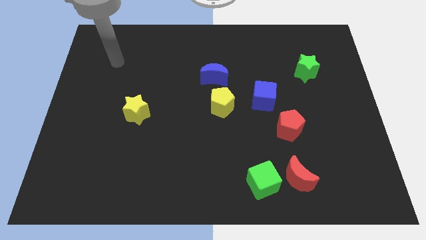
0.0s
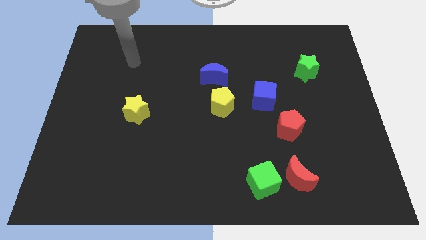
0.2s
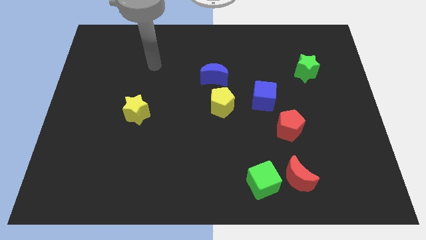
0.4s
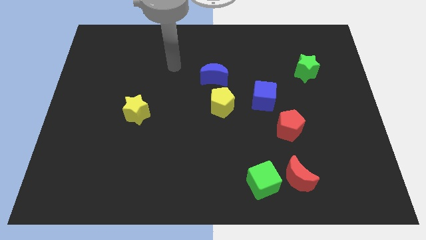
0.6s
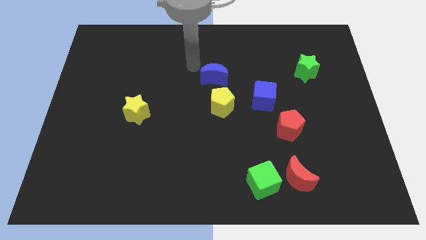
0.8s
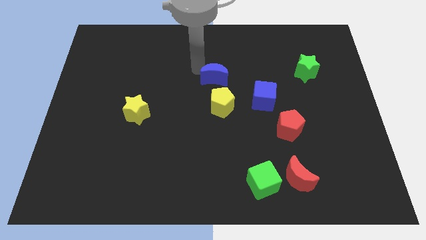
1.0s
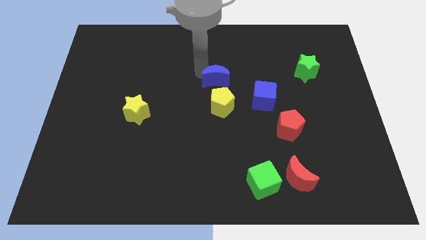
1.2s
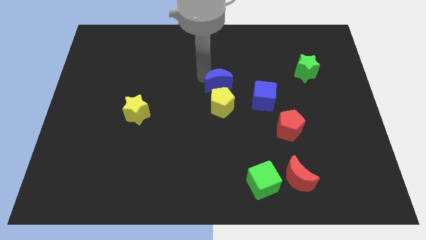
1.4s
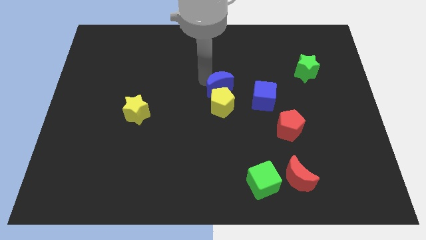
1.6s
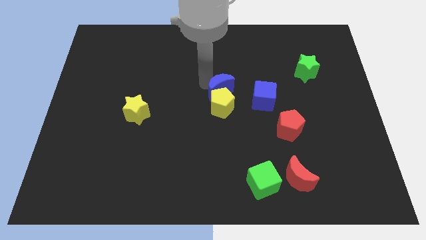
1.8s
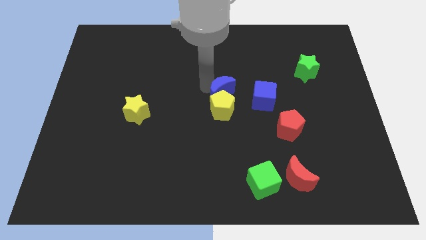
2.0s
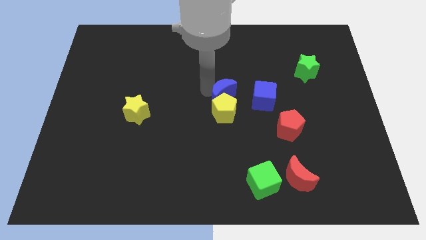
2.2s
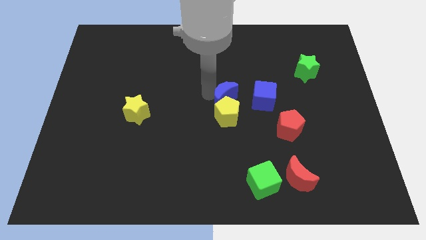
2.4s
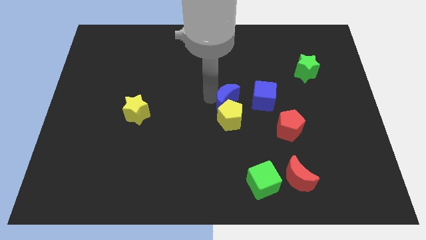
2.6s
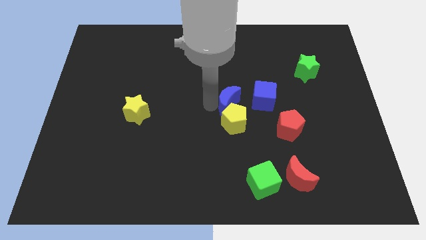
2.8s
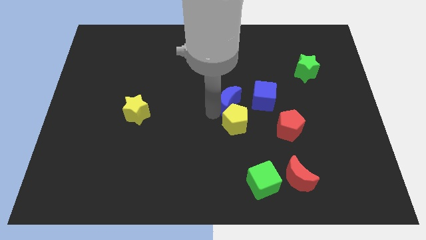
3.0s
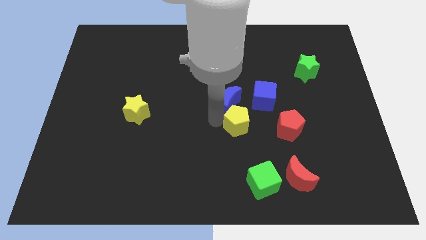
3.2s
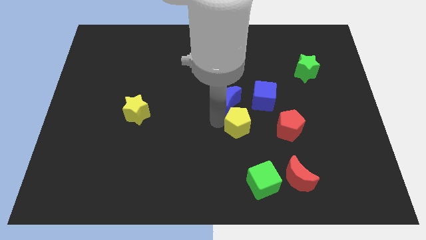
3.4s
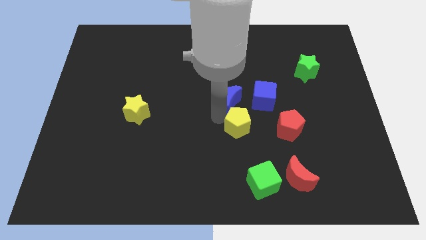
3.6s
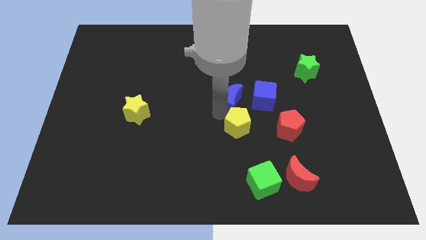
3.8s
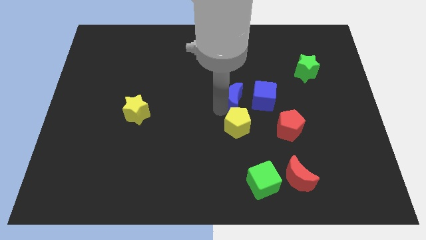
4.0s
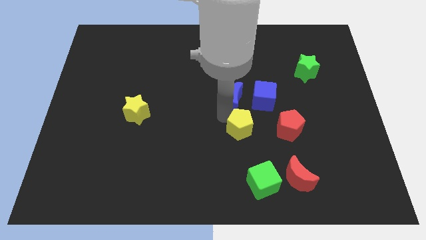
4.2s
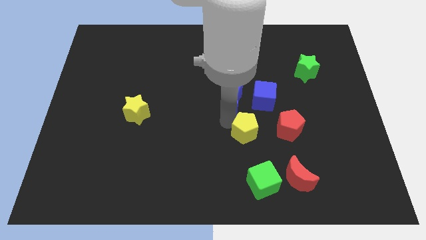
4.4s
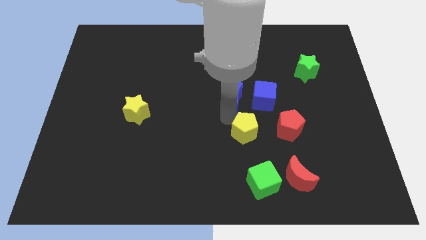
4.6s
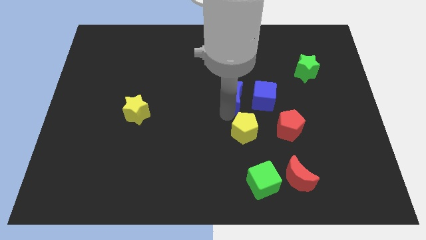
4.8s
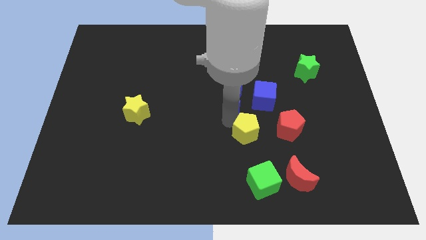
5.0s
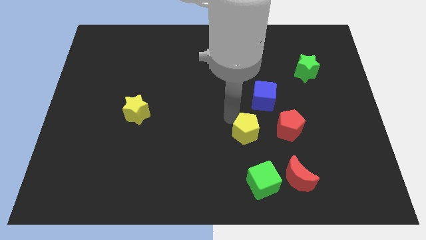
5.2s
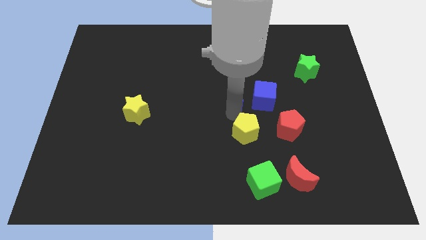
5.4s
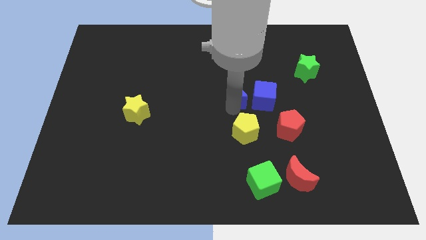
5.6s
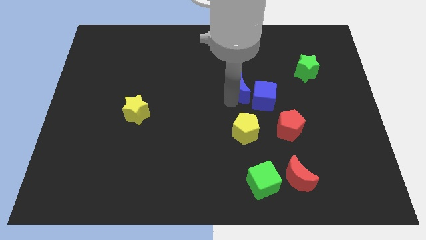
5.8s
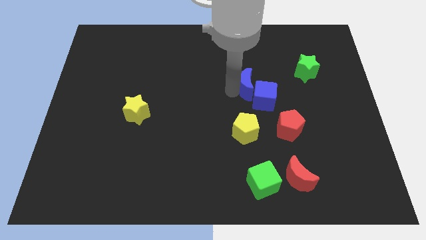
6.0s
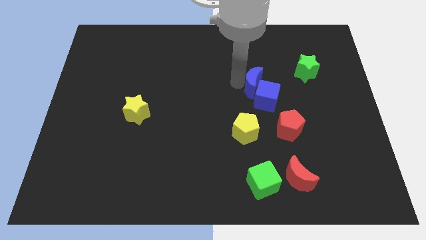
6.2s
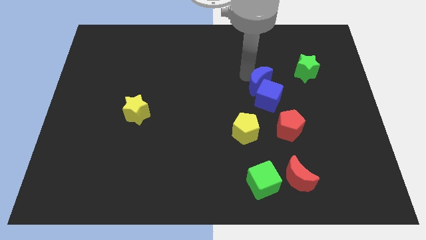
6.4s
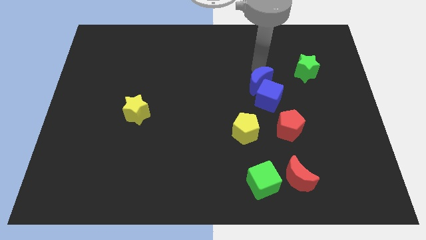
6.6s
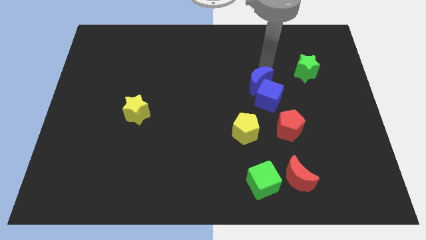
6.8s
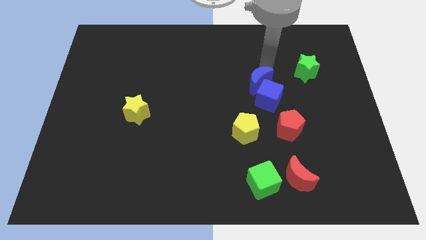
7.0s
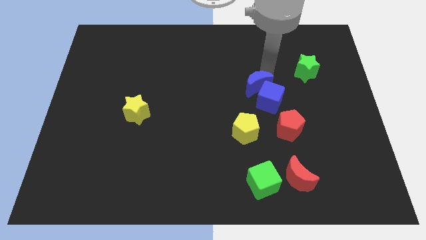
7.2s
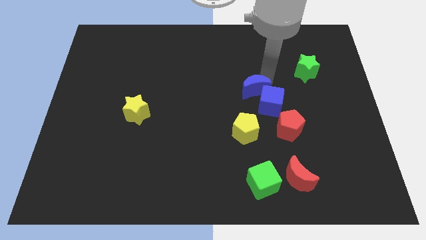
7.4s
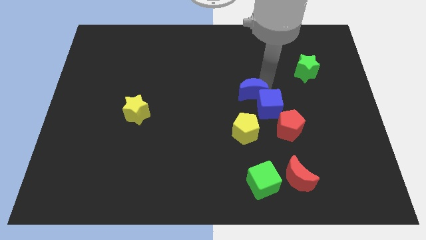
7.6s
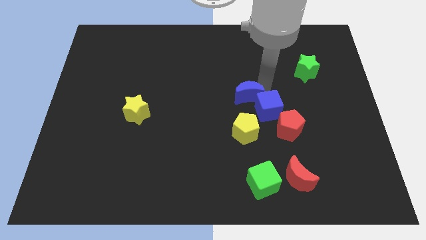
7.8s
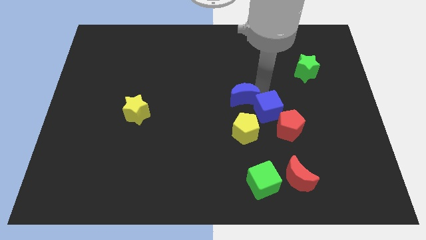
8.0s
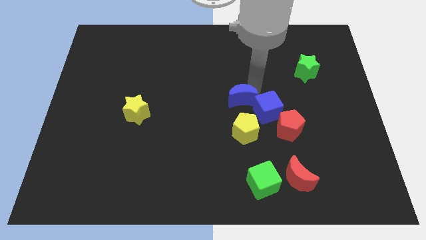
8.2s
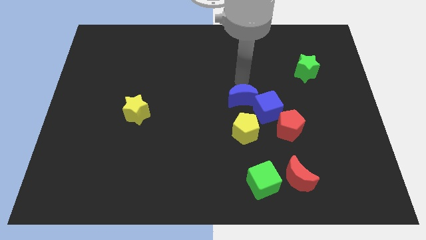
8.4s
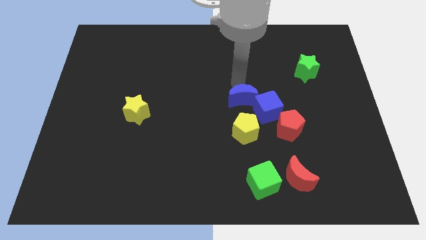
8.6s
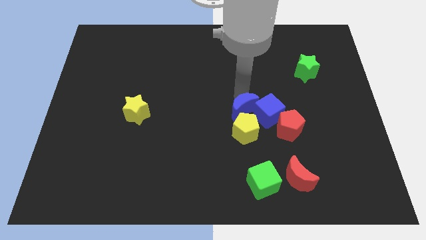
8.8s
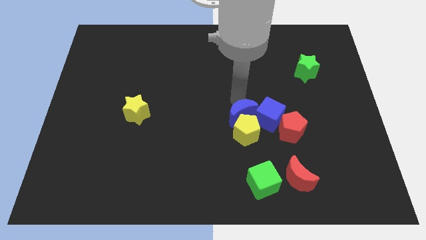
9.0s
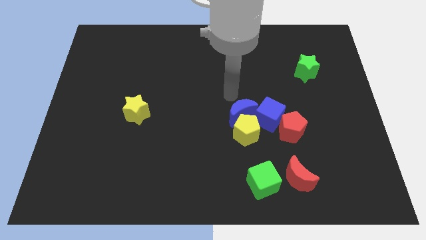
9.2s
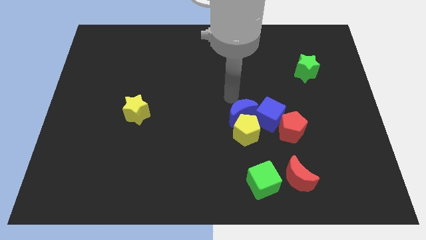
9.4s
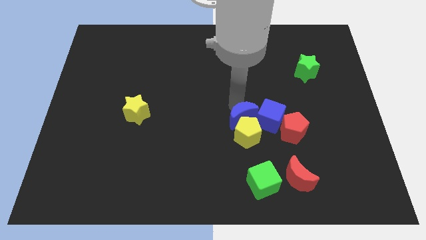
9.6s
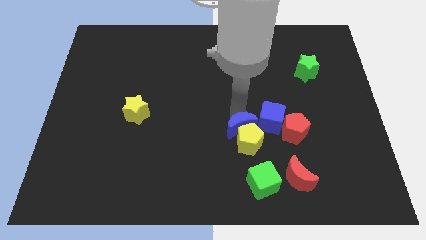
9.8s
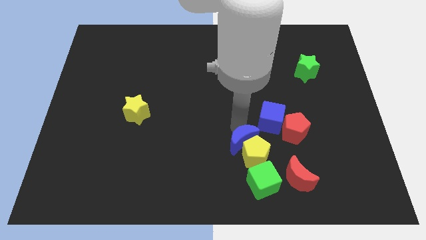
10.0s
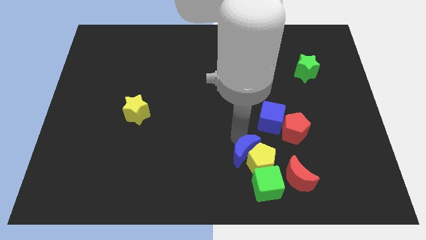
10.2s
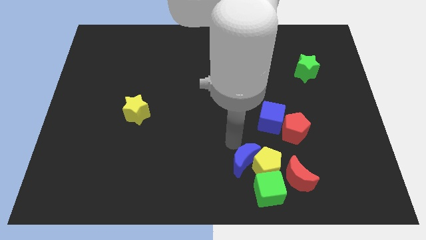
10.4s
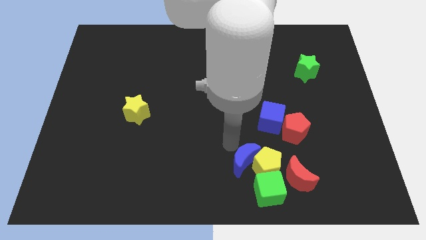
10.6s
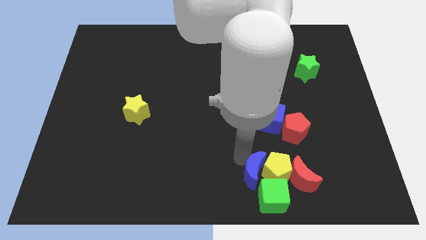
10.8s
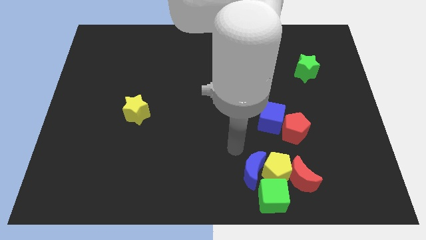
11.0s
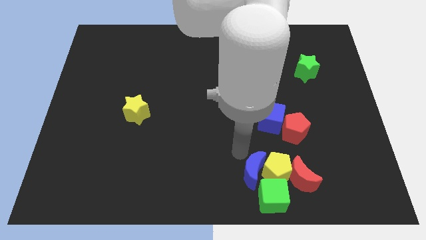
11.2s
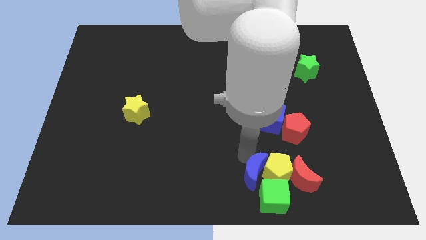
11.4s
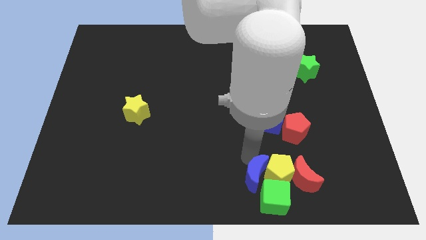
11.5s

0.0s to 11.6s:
push the blue moon towards the green cube

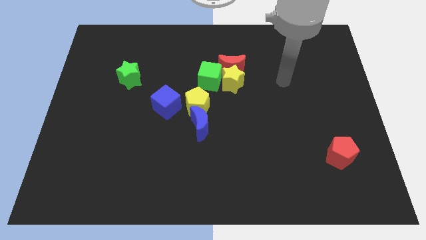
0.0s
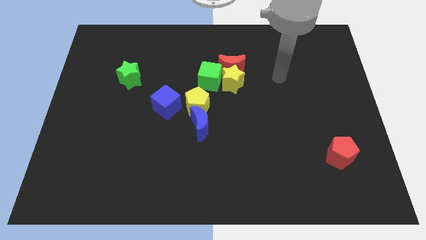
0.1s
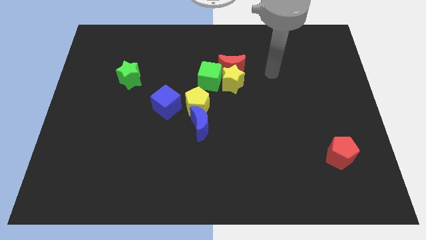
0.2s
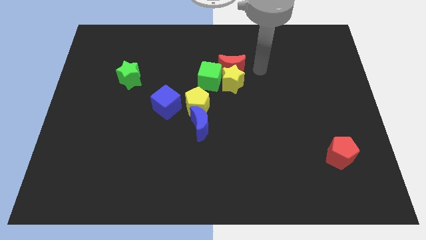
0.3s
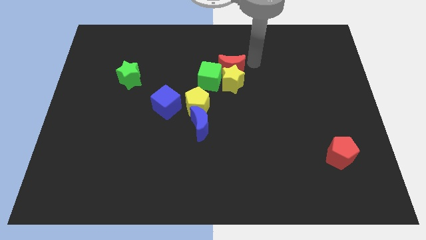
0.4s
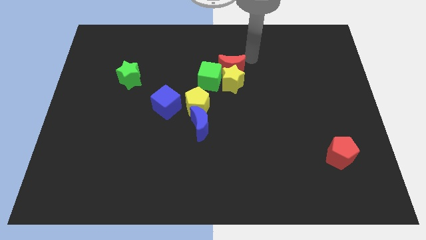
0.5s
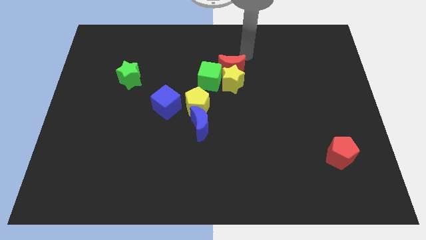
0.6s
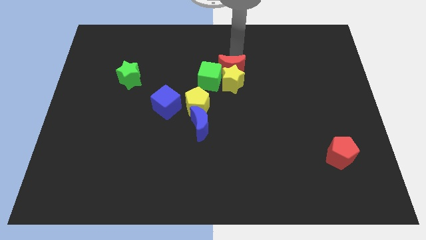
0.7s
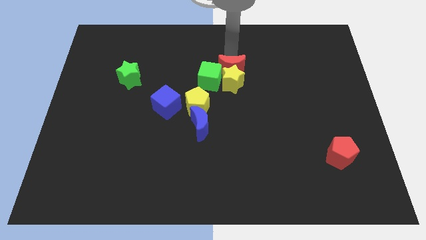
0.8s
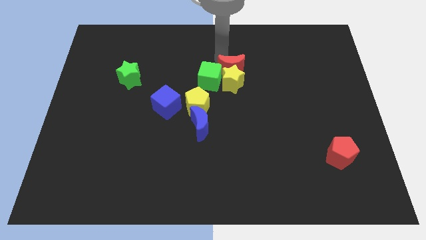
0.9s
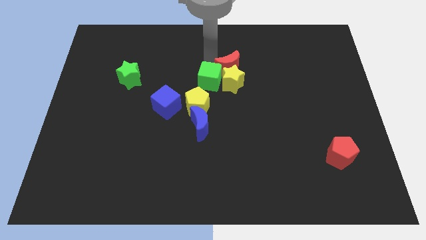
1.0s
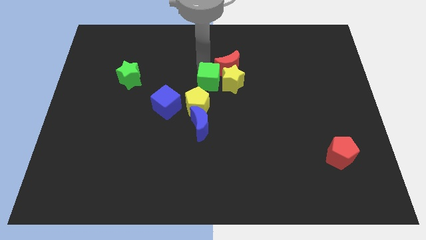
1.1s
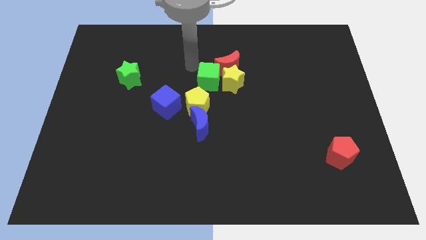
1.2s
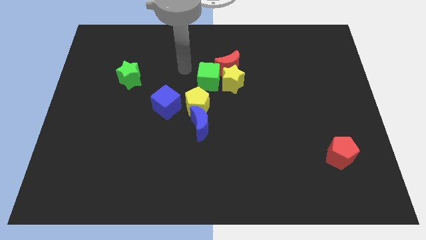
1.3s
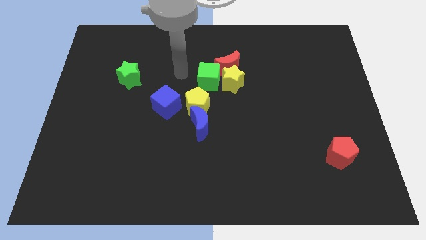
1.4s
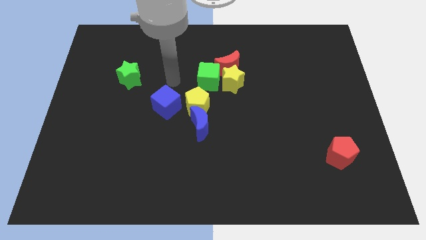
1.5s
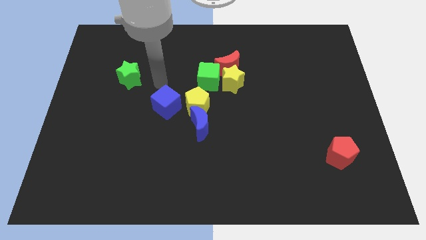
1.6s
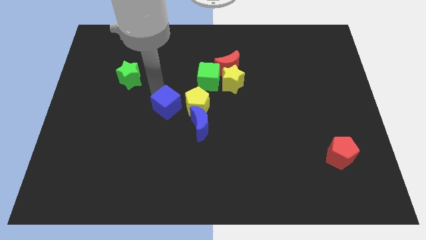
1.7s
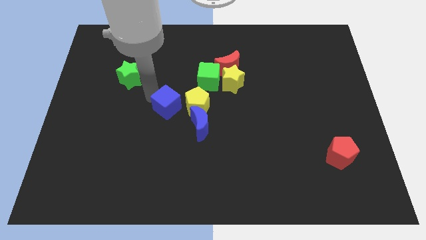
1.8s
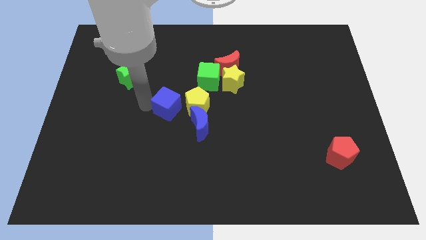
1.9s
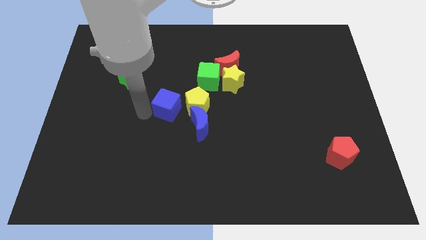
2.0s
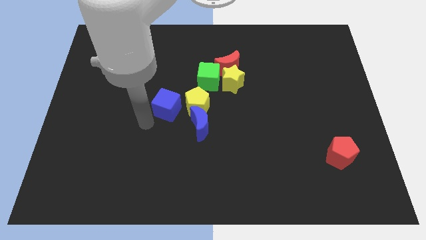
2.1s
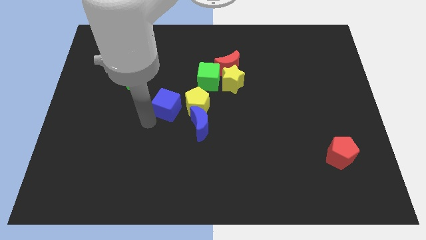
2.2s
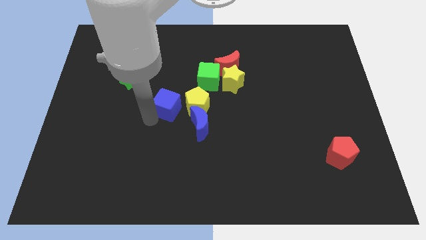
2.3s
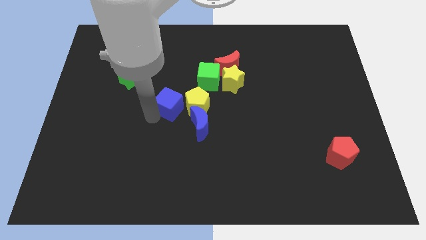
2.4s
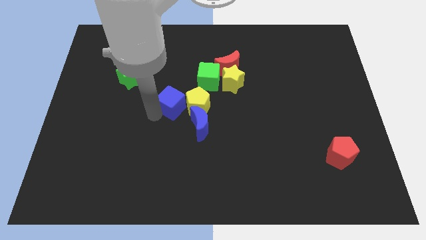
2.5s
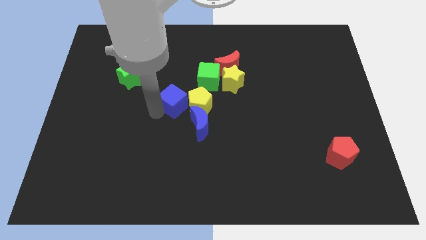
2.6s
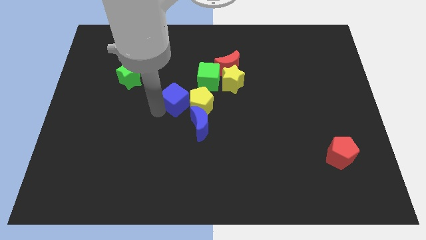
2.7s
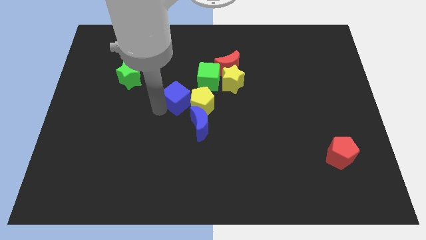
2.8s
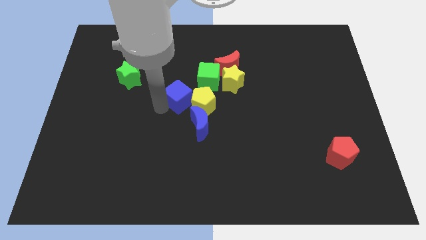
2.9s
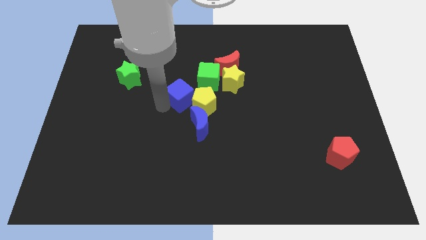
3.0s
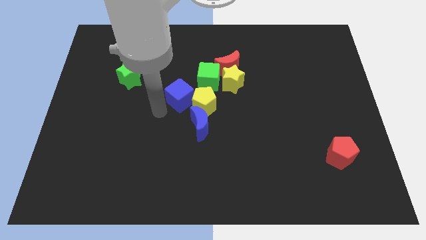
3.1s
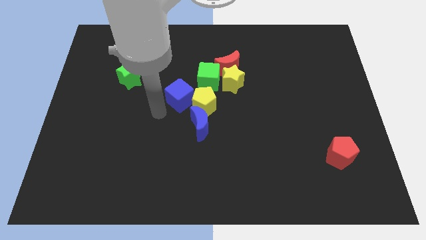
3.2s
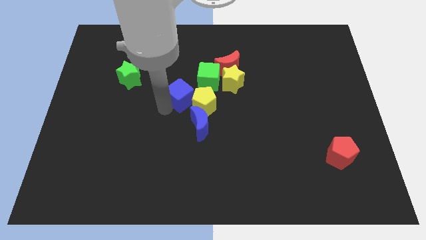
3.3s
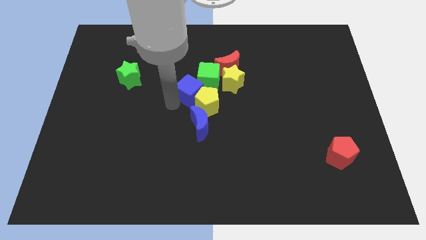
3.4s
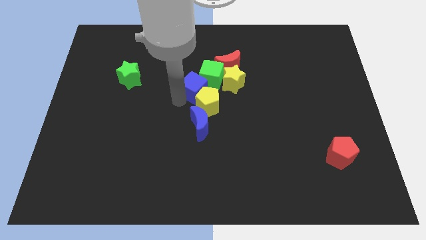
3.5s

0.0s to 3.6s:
move the blue cube towards the green cube
